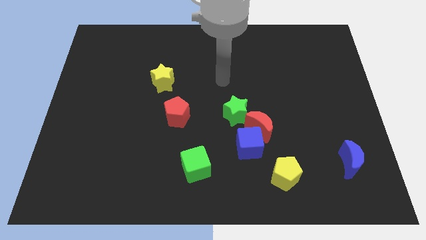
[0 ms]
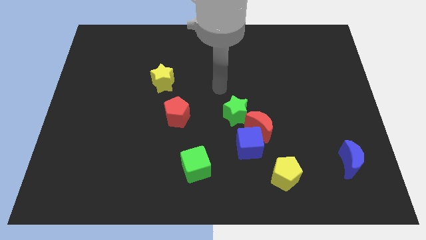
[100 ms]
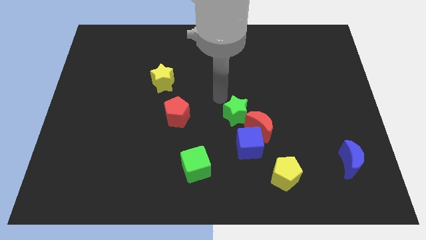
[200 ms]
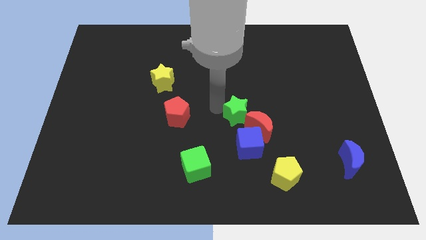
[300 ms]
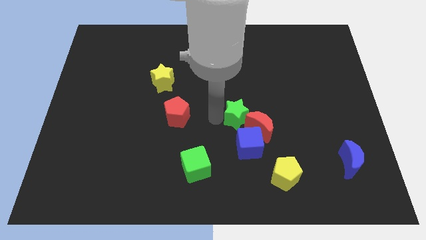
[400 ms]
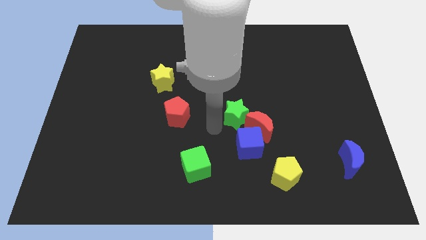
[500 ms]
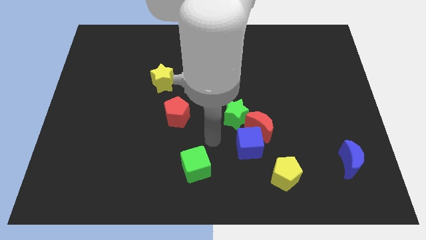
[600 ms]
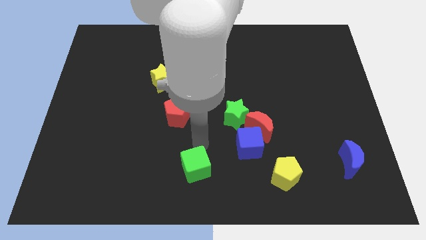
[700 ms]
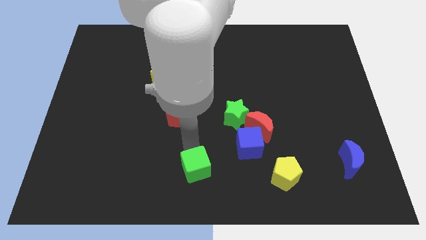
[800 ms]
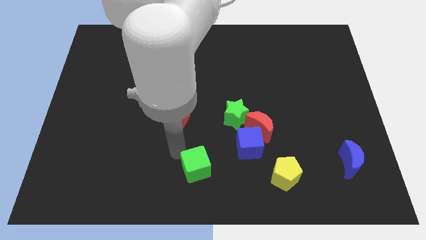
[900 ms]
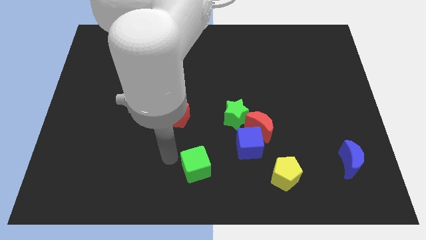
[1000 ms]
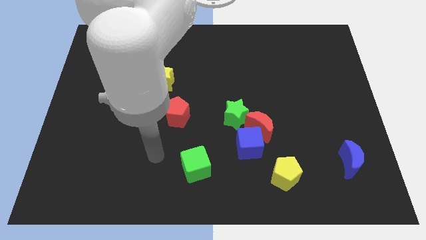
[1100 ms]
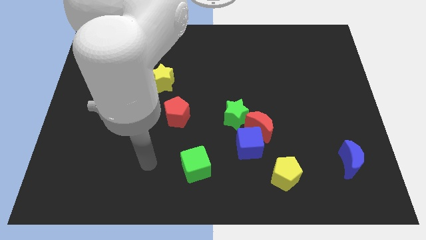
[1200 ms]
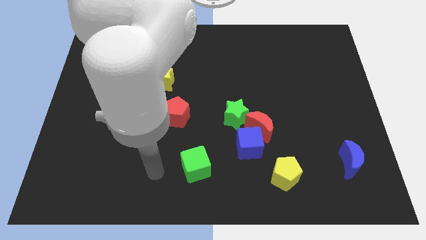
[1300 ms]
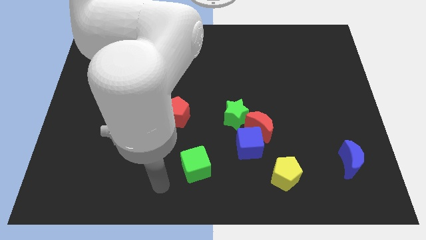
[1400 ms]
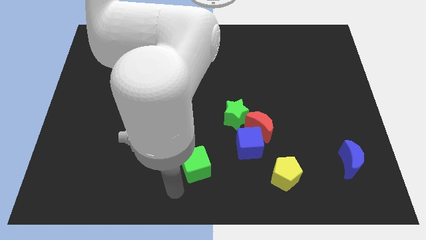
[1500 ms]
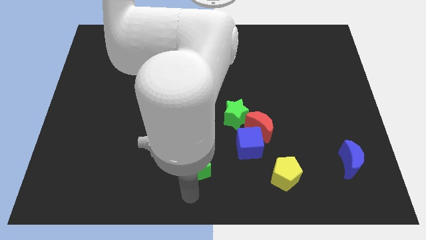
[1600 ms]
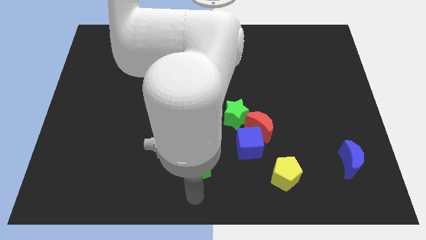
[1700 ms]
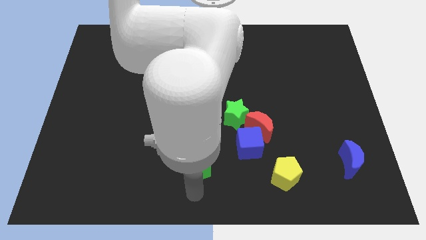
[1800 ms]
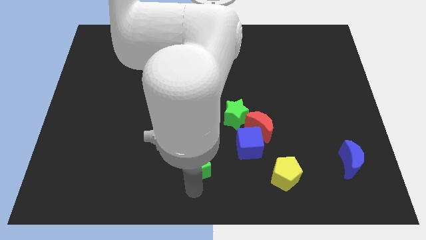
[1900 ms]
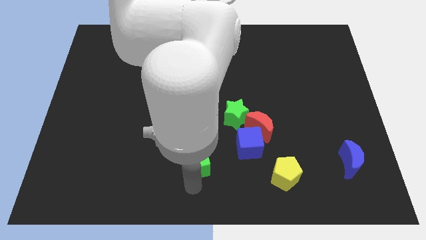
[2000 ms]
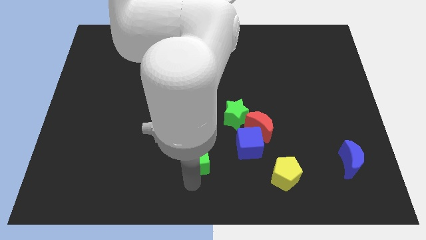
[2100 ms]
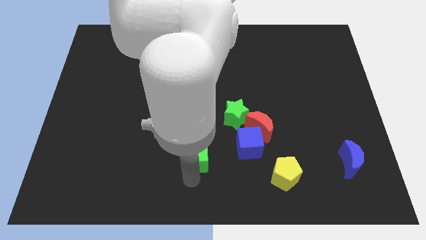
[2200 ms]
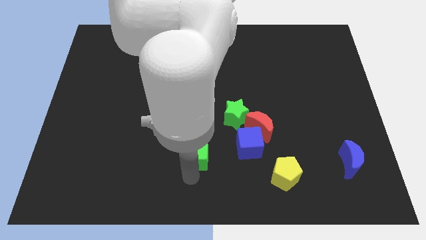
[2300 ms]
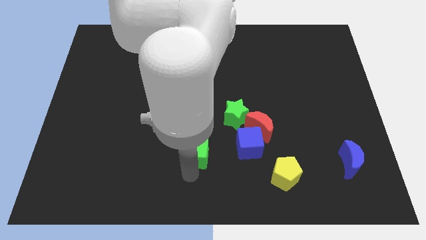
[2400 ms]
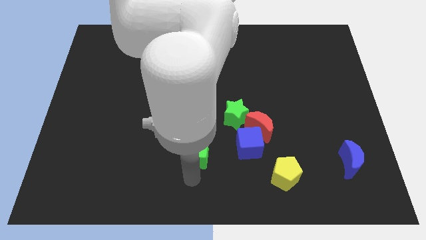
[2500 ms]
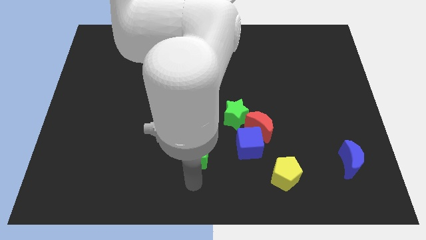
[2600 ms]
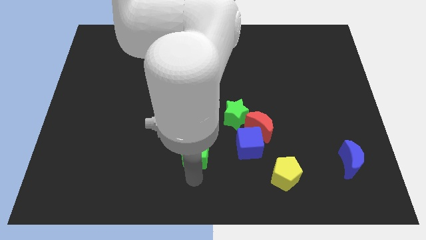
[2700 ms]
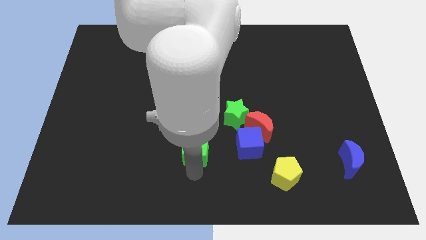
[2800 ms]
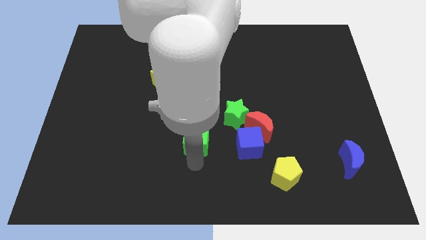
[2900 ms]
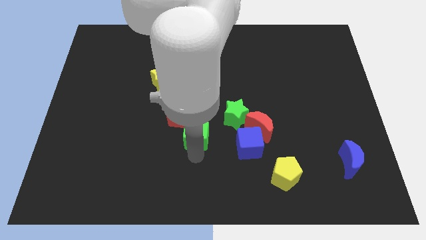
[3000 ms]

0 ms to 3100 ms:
push the green cube a little bit up

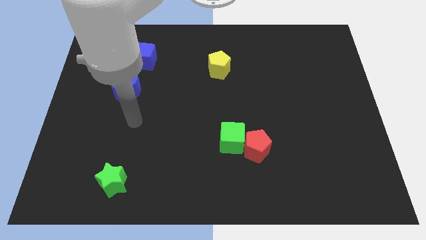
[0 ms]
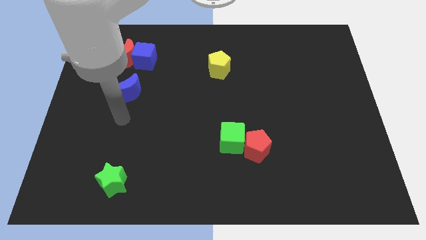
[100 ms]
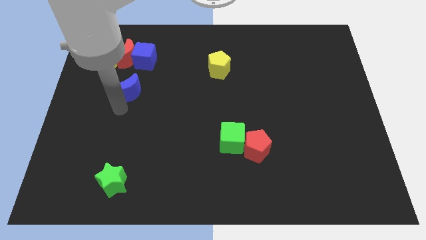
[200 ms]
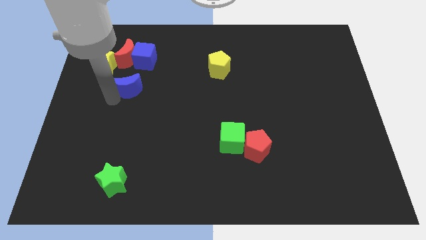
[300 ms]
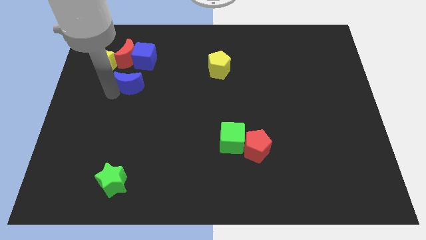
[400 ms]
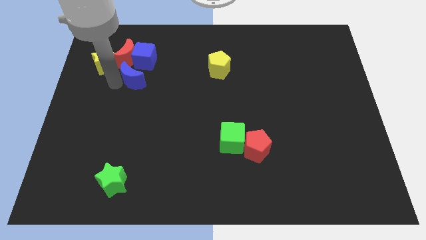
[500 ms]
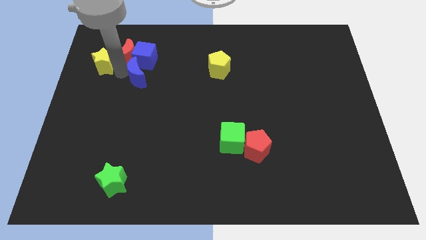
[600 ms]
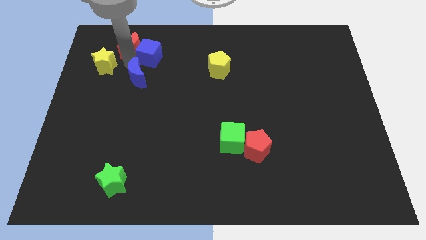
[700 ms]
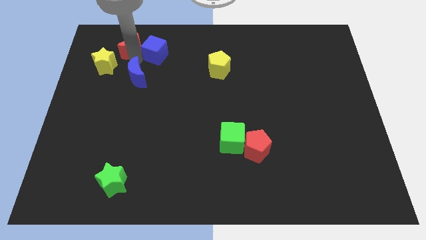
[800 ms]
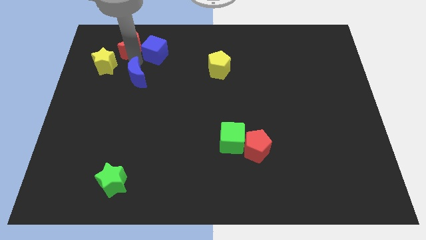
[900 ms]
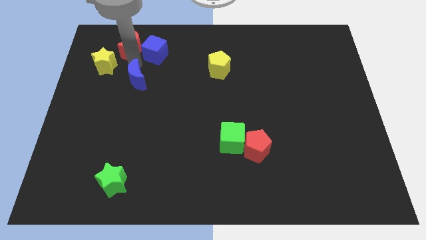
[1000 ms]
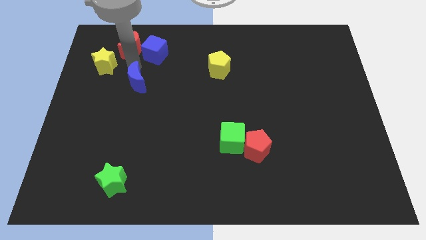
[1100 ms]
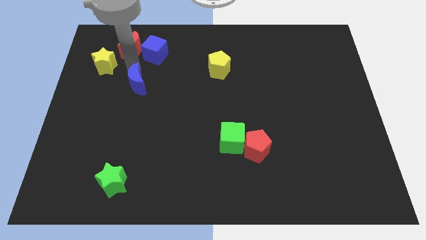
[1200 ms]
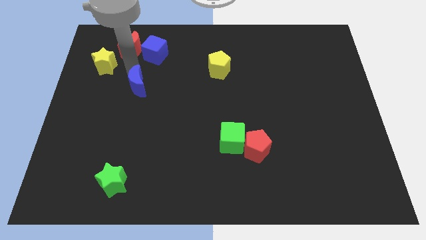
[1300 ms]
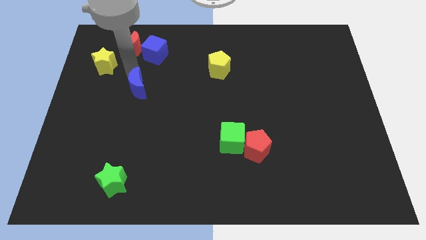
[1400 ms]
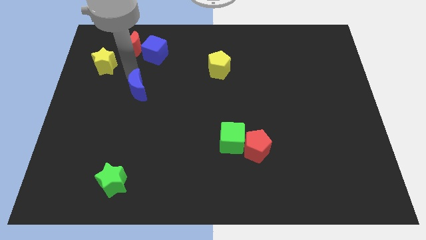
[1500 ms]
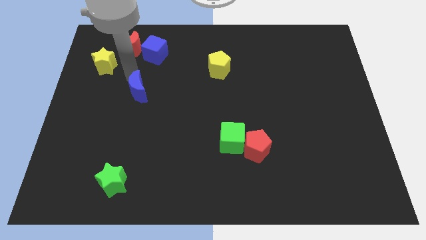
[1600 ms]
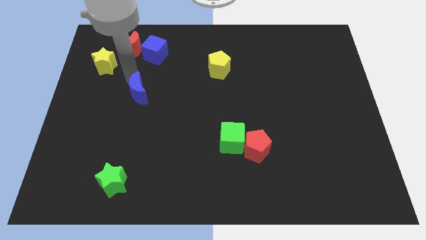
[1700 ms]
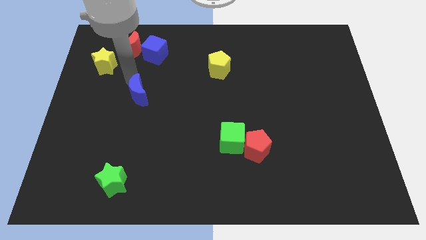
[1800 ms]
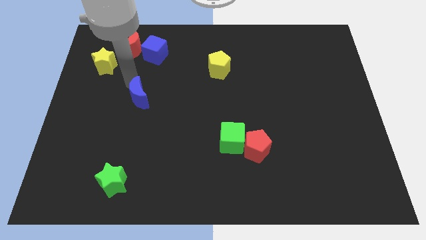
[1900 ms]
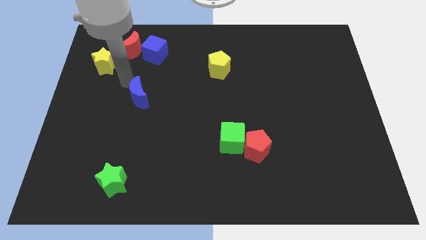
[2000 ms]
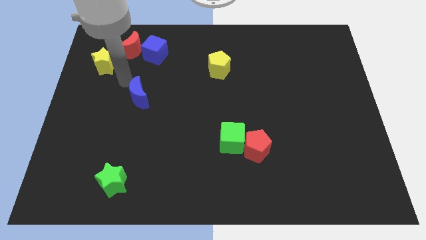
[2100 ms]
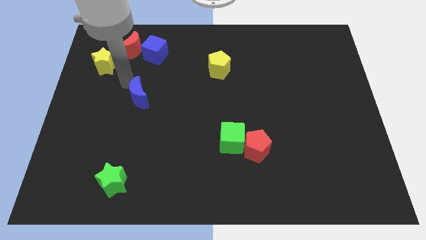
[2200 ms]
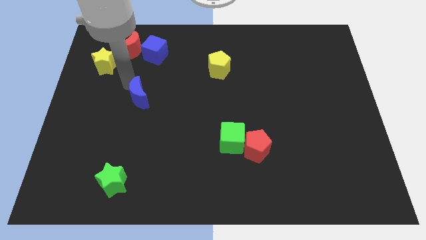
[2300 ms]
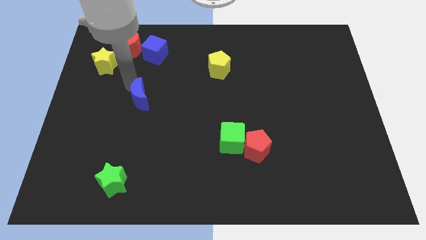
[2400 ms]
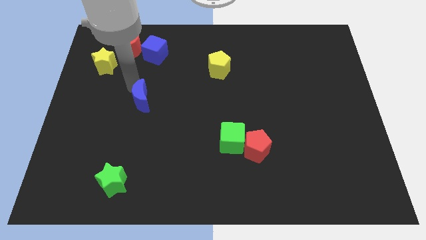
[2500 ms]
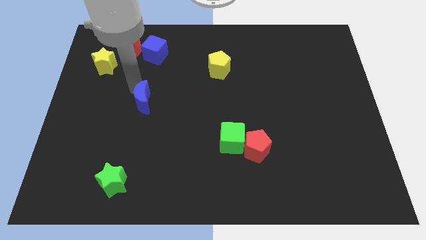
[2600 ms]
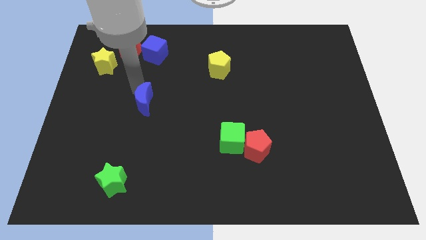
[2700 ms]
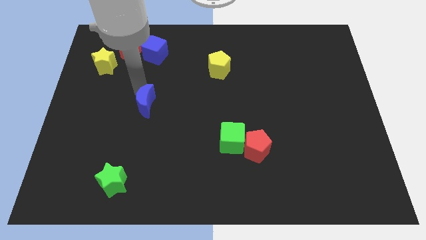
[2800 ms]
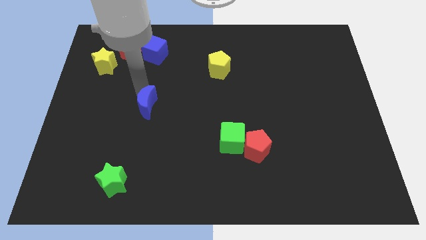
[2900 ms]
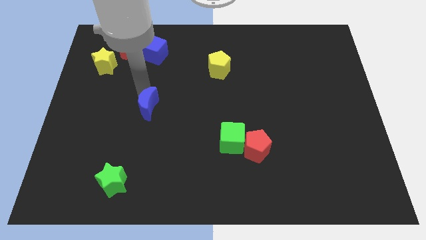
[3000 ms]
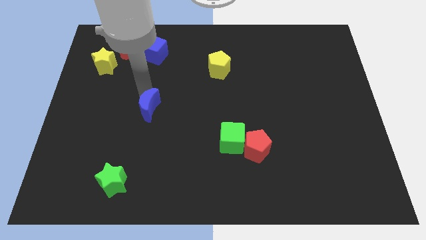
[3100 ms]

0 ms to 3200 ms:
move the blue moon a little bit down and to the right

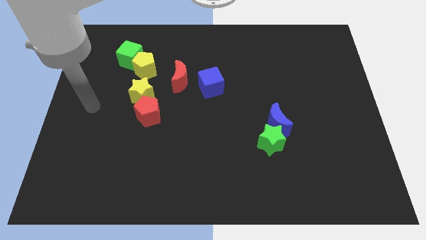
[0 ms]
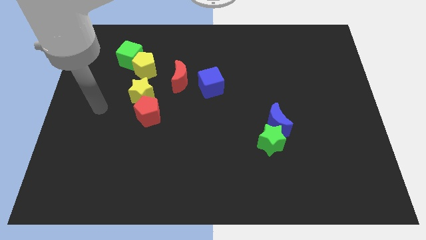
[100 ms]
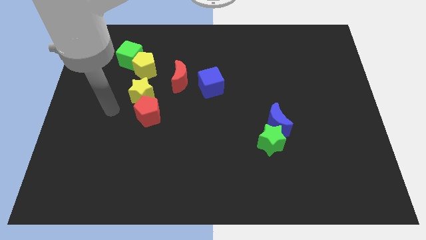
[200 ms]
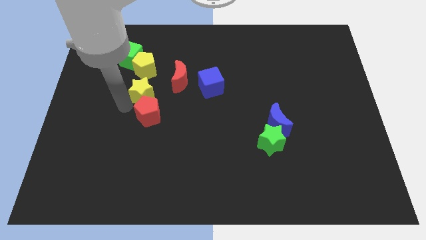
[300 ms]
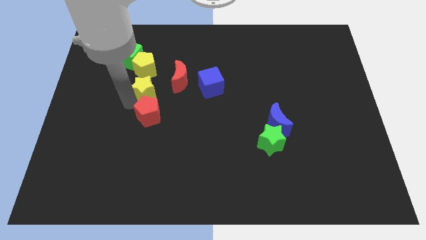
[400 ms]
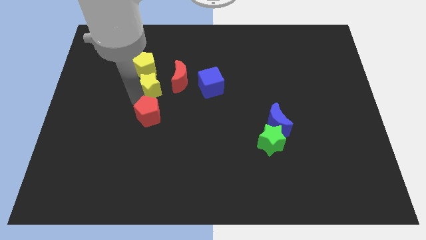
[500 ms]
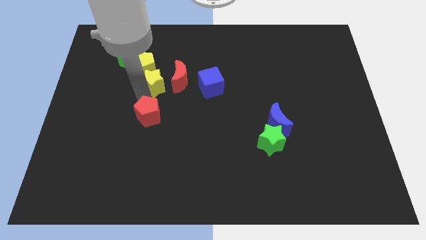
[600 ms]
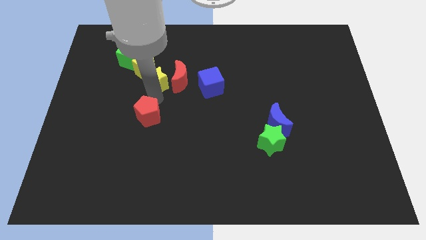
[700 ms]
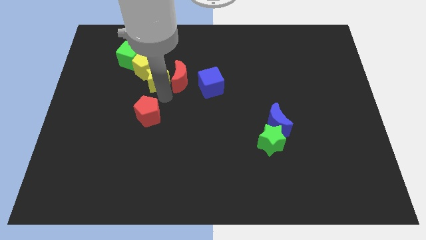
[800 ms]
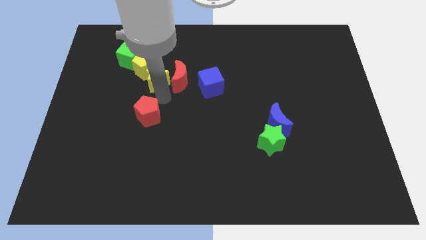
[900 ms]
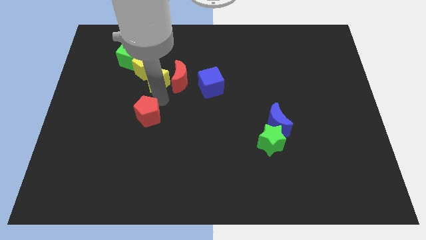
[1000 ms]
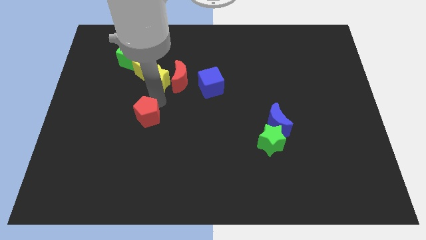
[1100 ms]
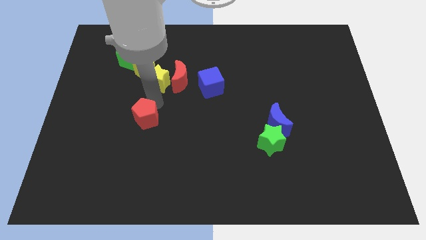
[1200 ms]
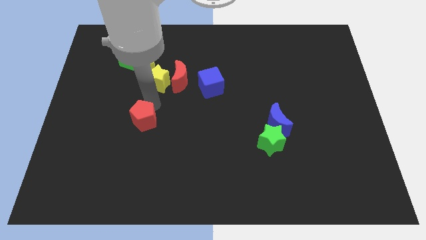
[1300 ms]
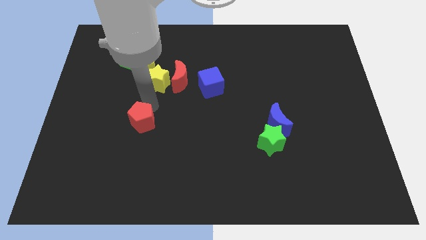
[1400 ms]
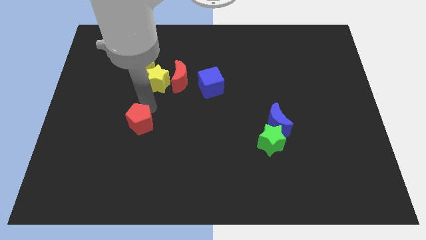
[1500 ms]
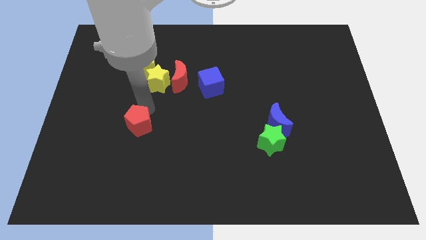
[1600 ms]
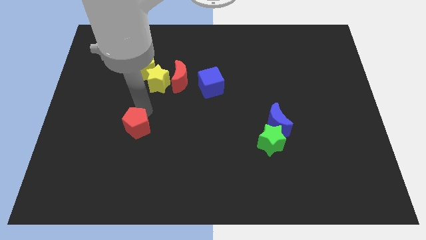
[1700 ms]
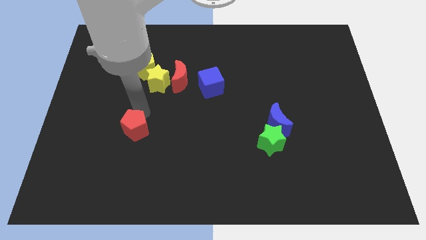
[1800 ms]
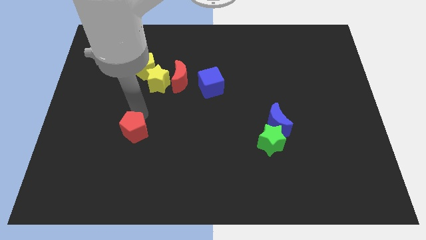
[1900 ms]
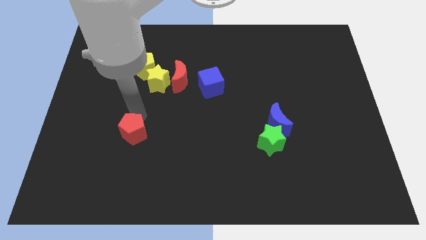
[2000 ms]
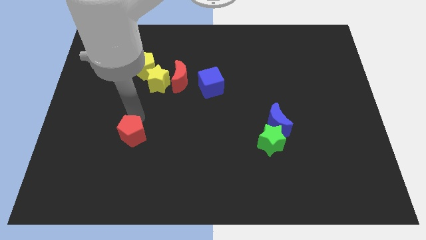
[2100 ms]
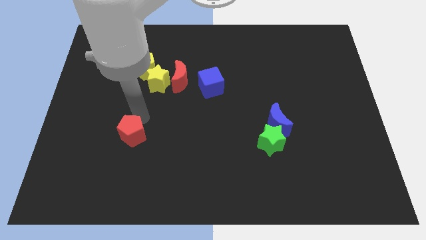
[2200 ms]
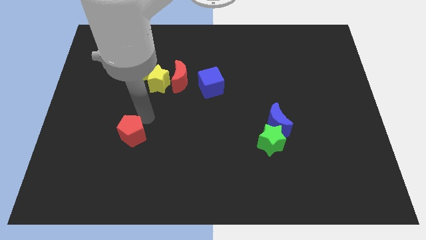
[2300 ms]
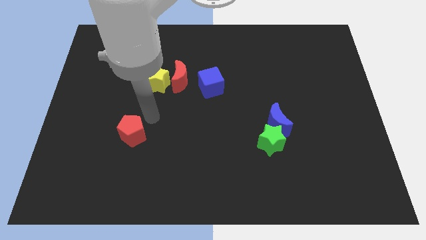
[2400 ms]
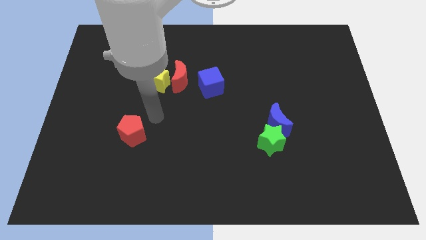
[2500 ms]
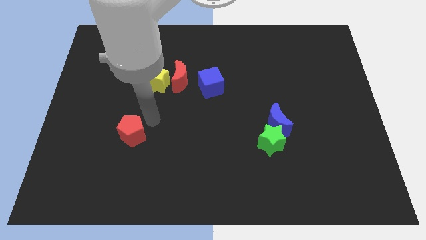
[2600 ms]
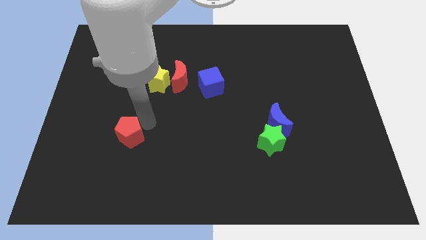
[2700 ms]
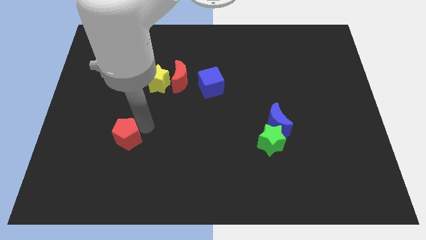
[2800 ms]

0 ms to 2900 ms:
slightly push the red pentagon downwards and left diagonally
